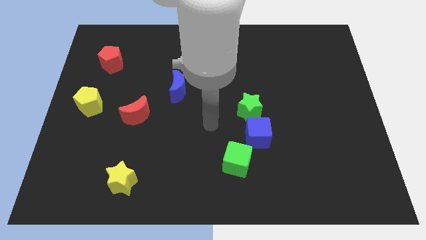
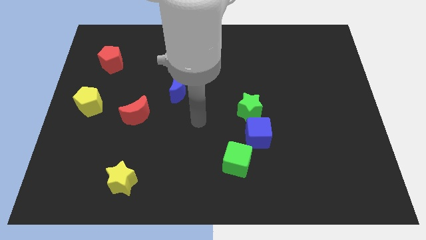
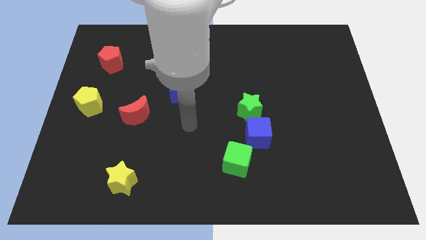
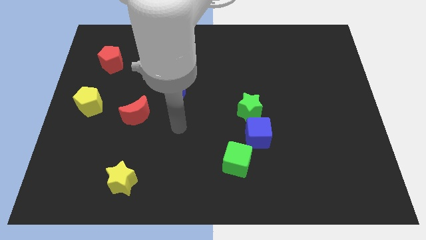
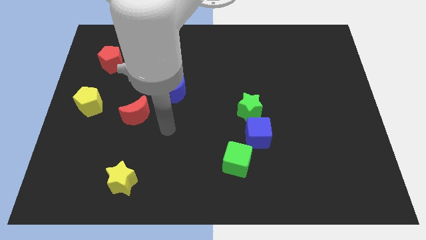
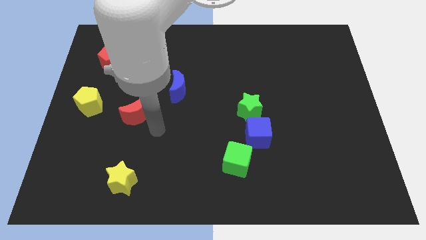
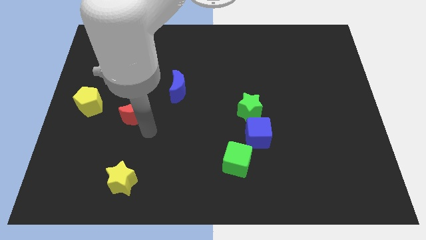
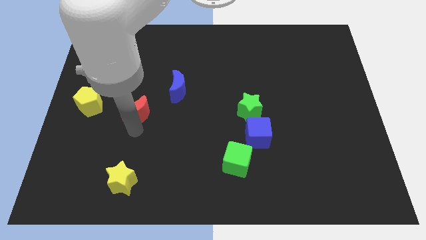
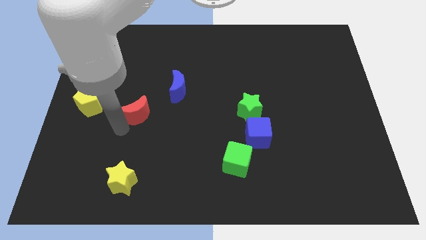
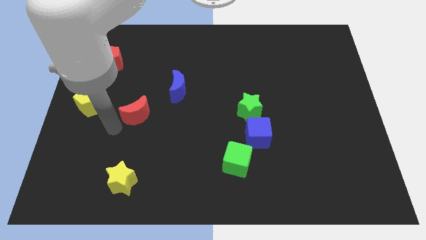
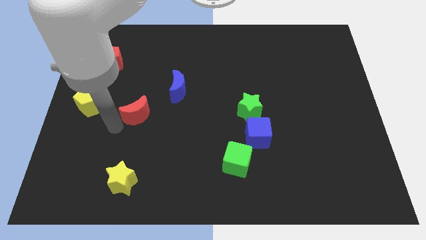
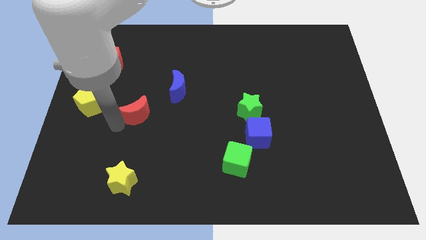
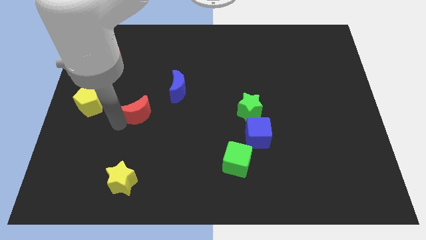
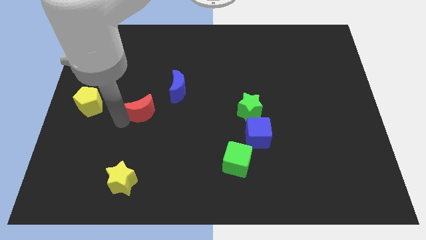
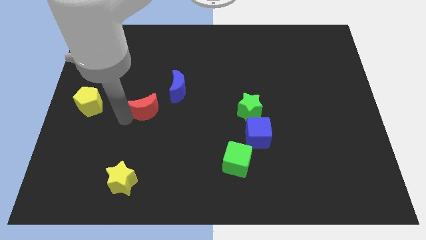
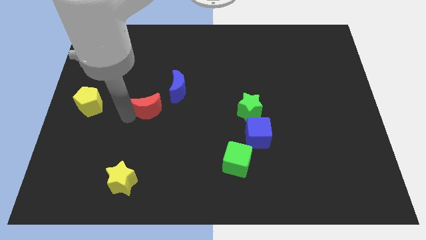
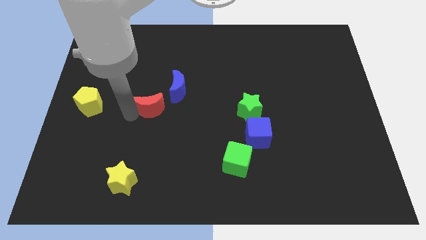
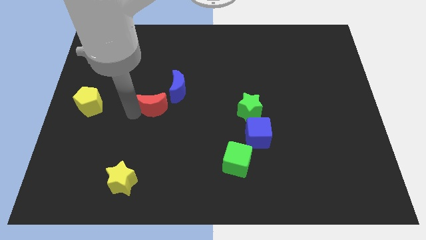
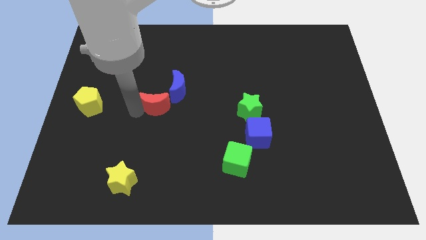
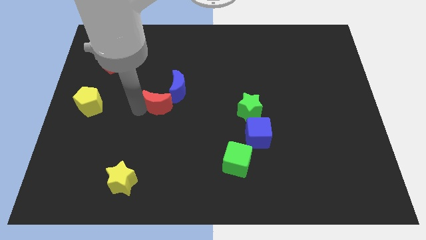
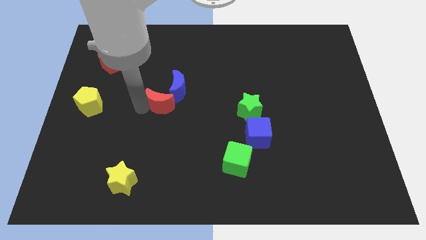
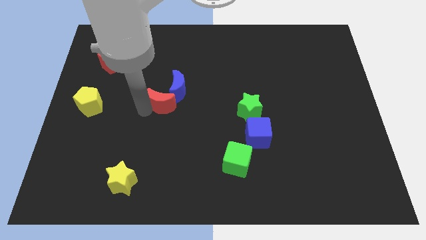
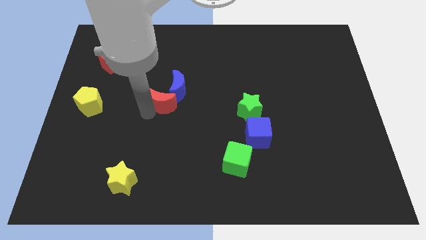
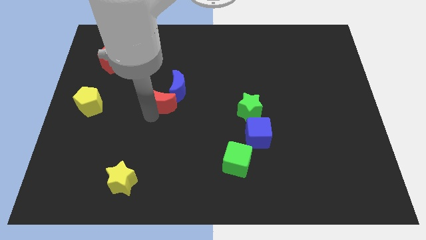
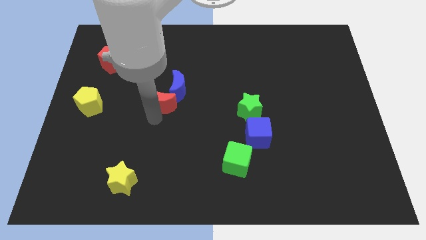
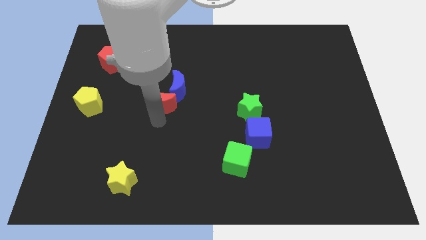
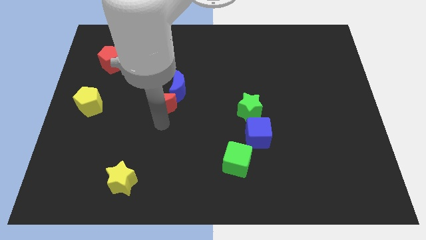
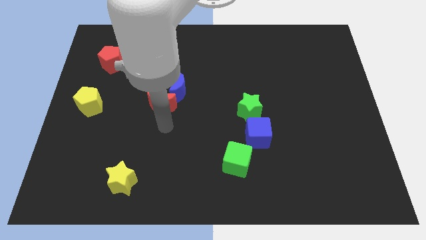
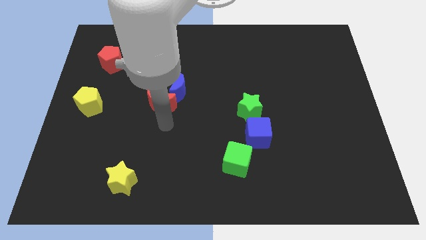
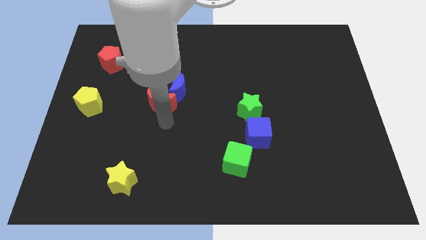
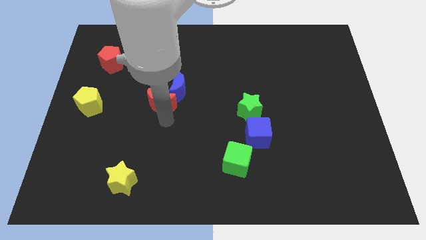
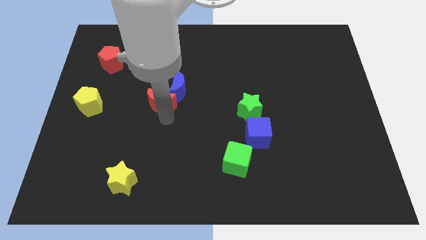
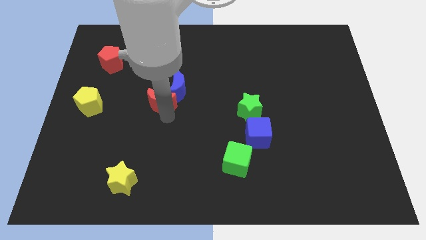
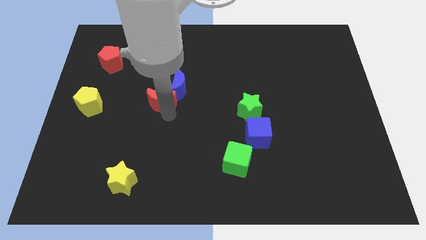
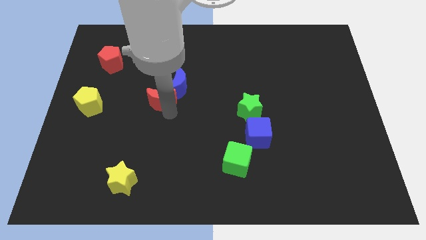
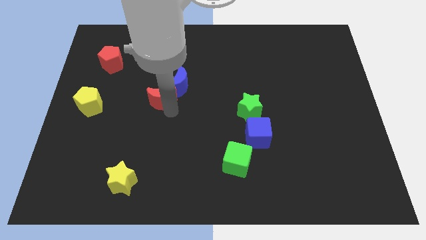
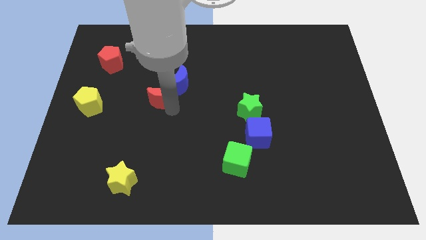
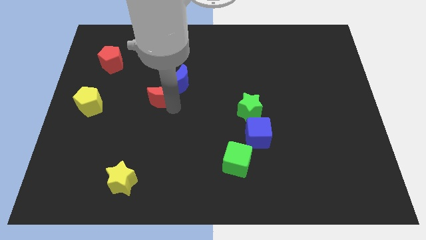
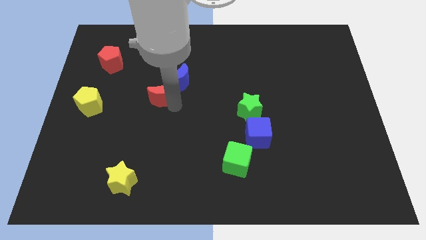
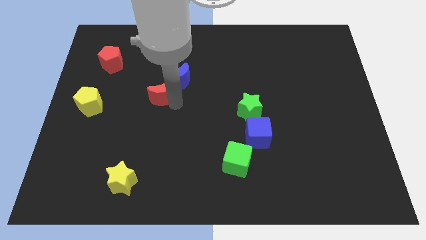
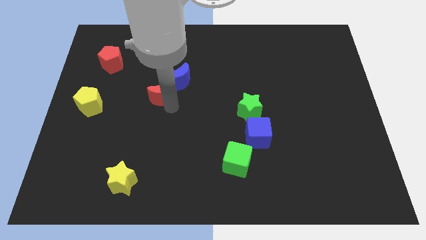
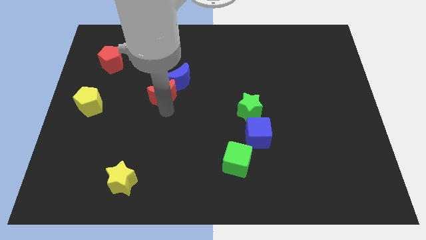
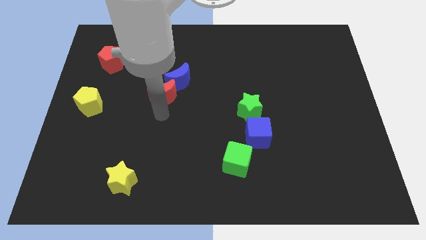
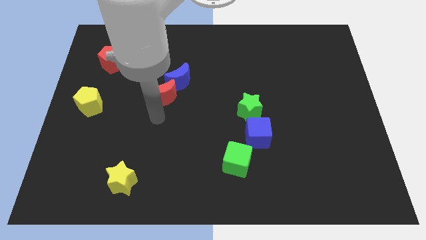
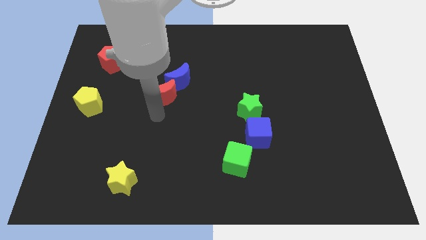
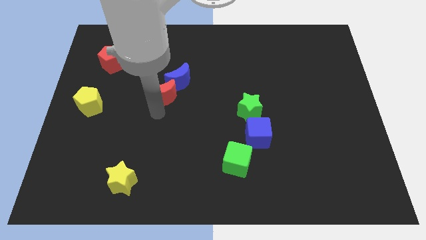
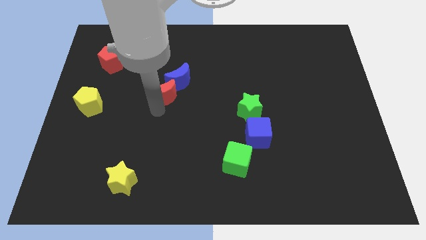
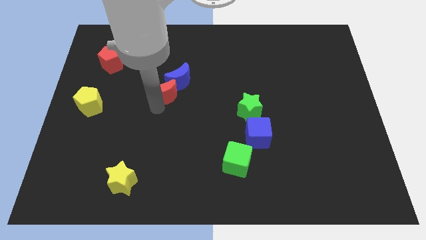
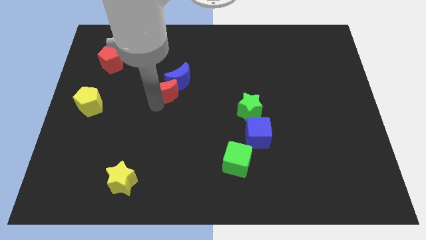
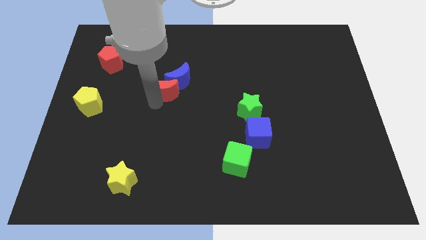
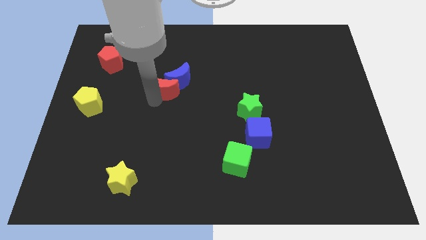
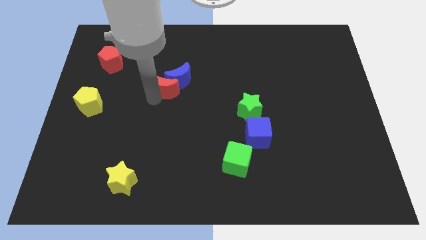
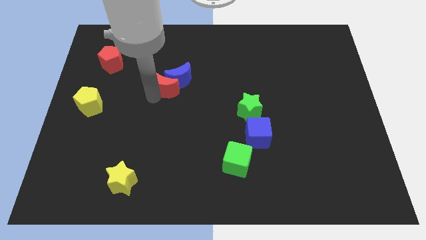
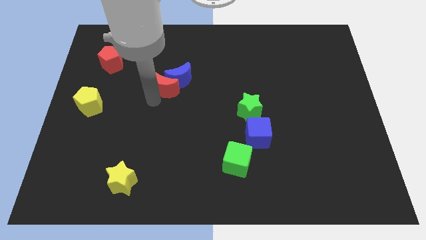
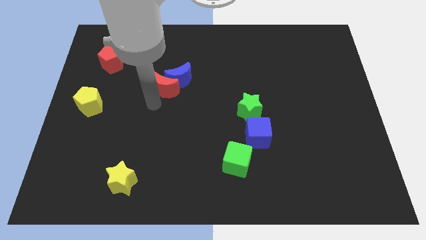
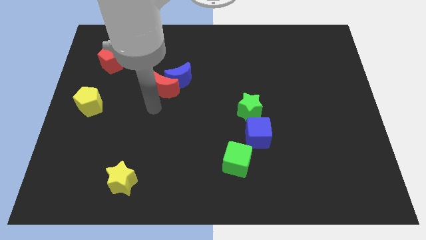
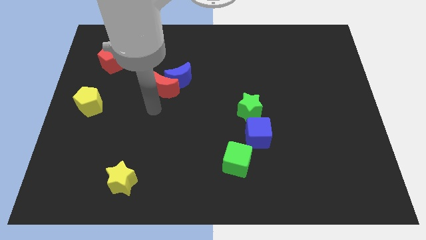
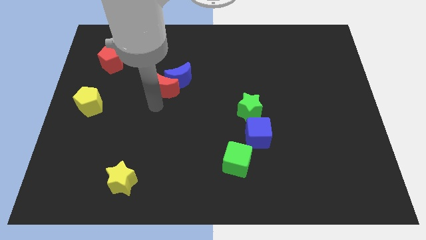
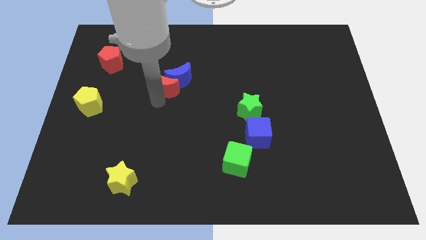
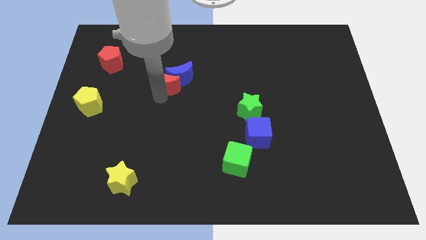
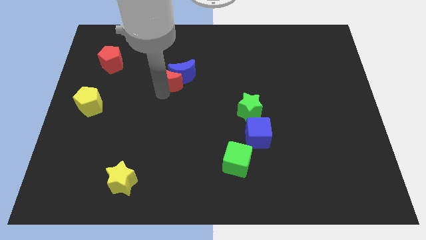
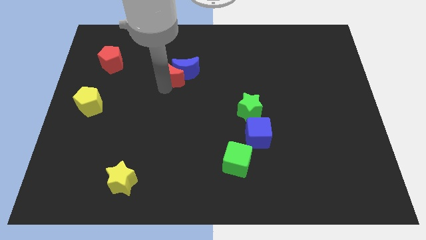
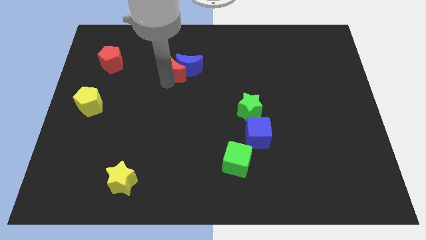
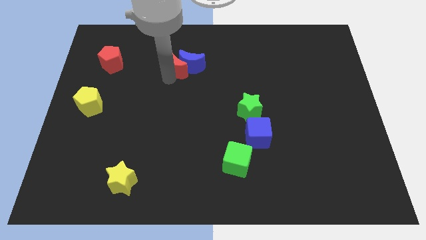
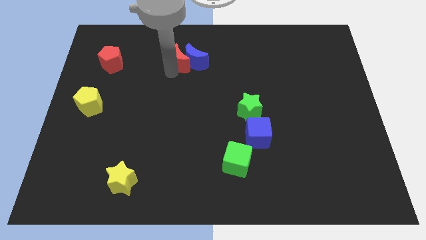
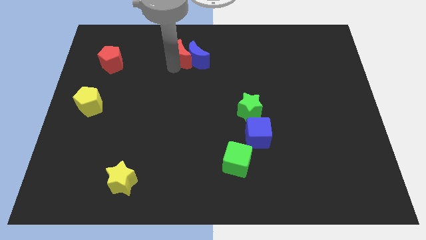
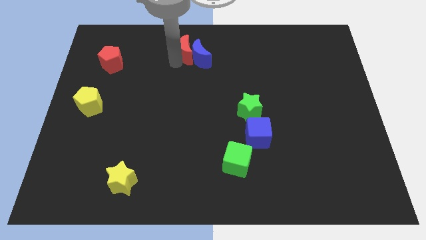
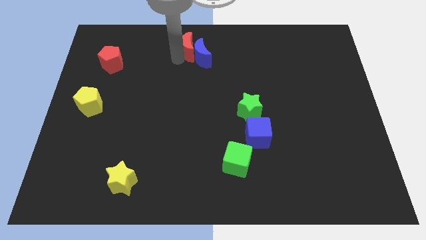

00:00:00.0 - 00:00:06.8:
slide the red moon to the top
